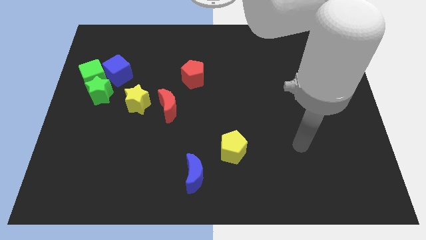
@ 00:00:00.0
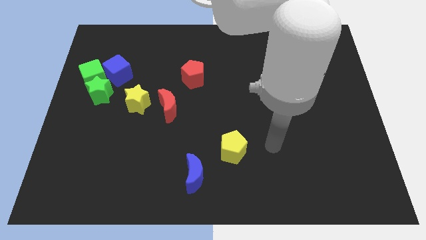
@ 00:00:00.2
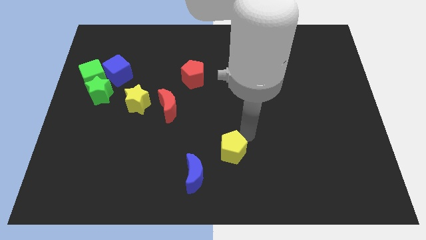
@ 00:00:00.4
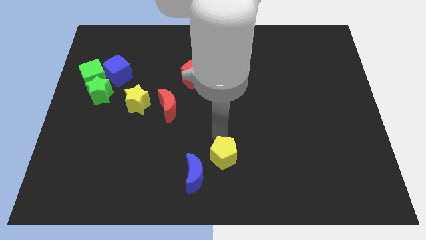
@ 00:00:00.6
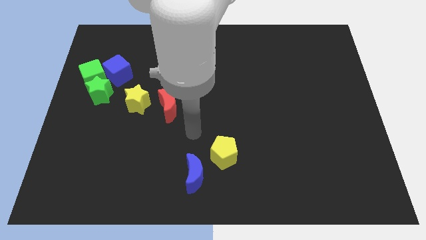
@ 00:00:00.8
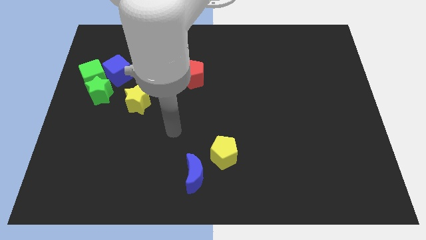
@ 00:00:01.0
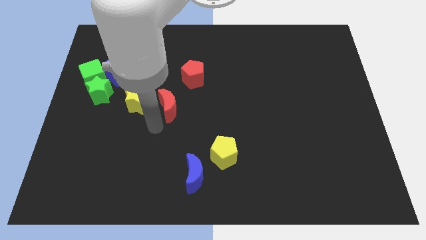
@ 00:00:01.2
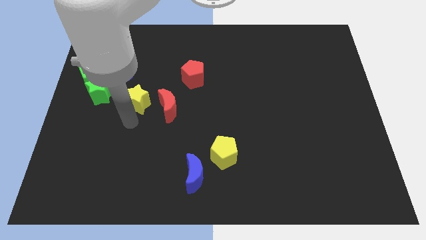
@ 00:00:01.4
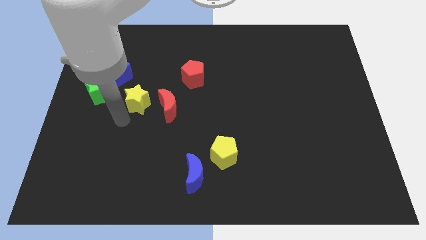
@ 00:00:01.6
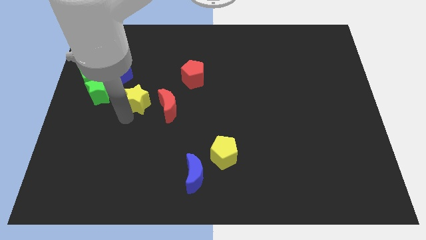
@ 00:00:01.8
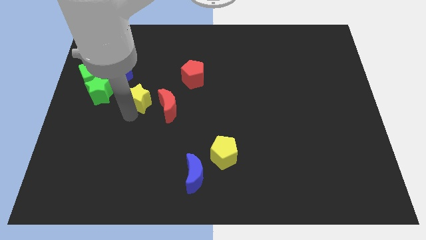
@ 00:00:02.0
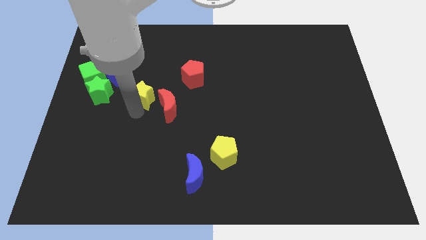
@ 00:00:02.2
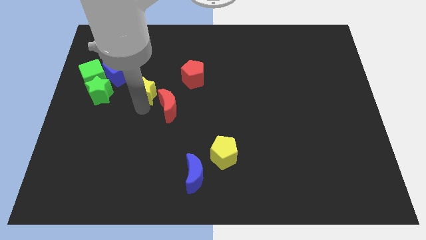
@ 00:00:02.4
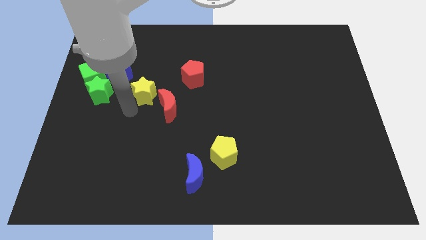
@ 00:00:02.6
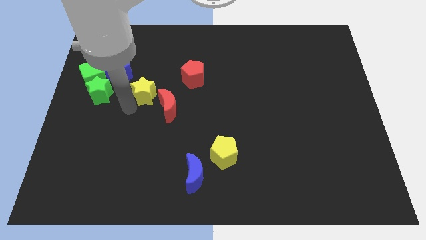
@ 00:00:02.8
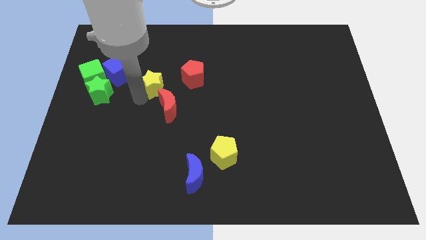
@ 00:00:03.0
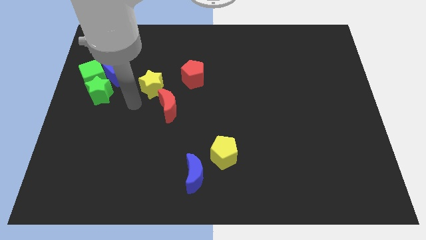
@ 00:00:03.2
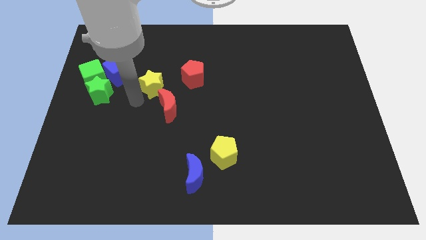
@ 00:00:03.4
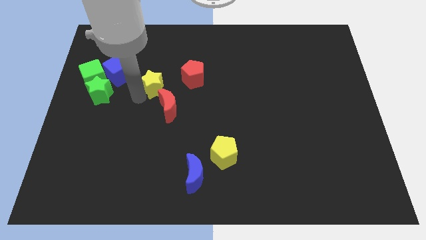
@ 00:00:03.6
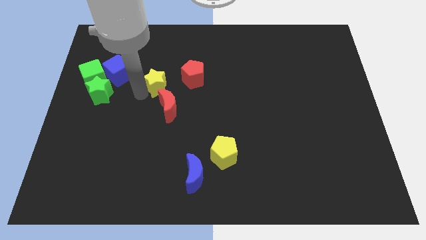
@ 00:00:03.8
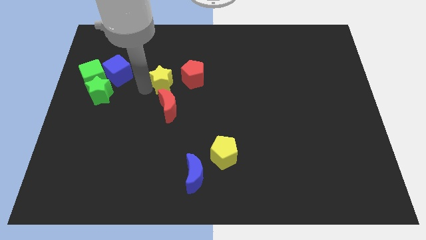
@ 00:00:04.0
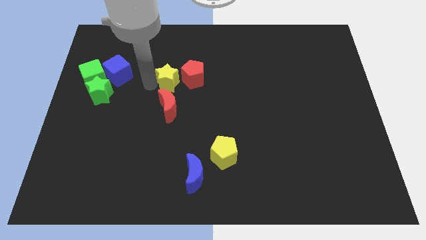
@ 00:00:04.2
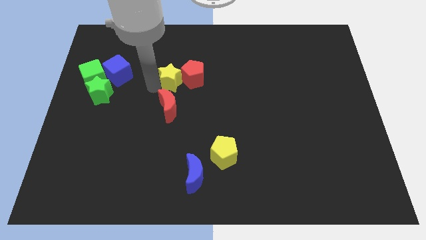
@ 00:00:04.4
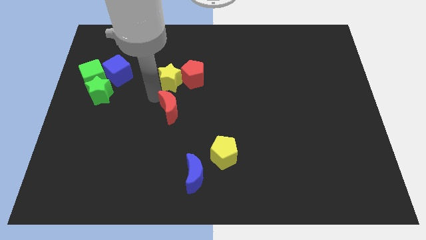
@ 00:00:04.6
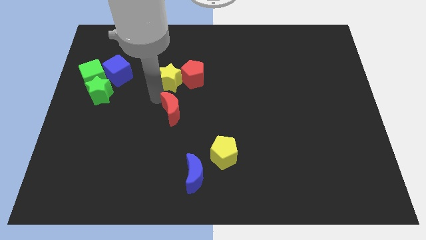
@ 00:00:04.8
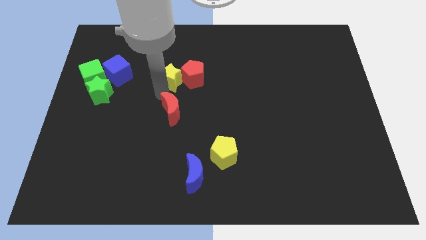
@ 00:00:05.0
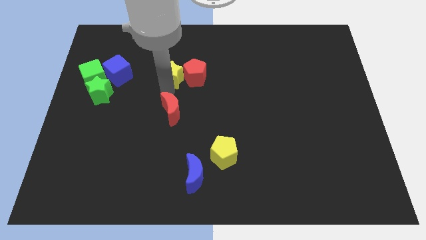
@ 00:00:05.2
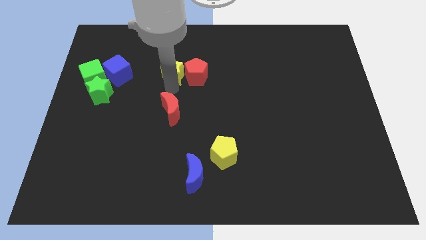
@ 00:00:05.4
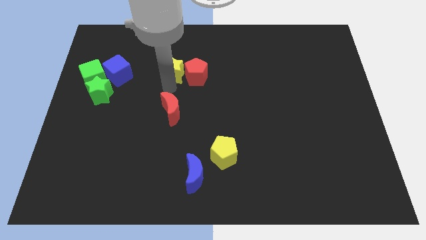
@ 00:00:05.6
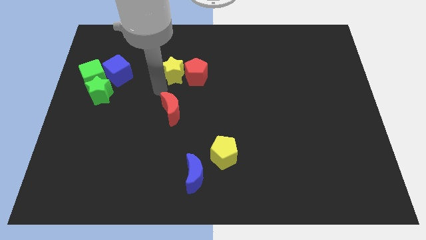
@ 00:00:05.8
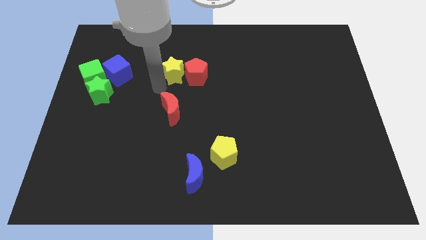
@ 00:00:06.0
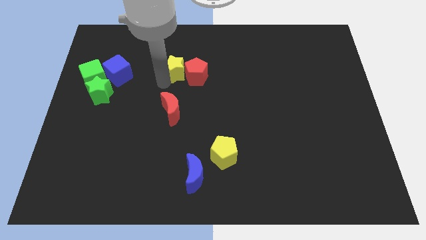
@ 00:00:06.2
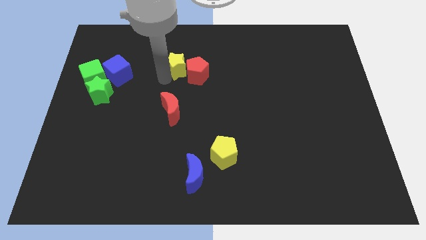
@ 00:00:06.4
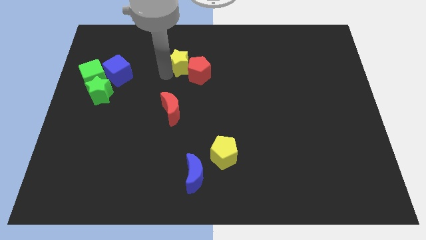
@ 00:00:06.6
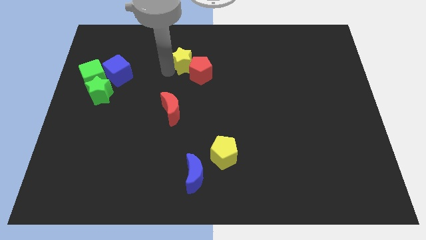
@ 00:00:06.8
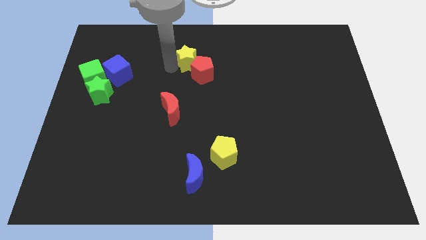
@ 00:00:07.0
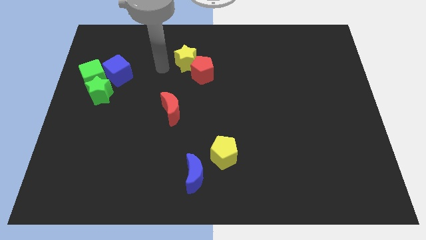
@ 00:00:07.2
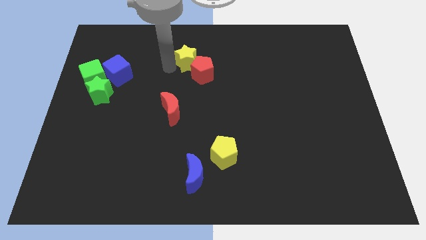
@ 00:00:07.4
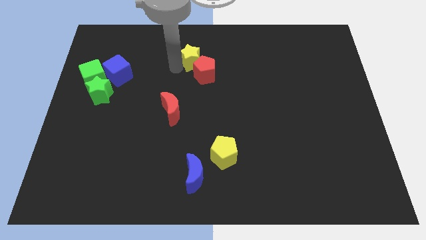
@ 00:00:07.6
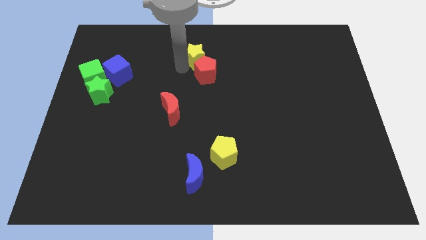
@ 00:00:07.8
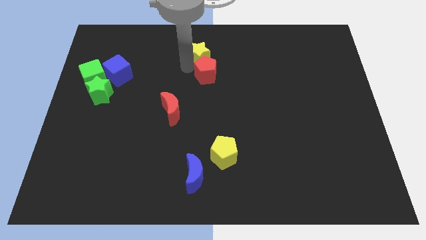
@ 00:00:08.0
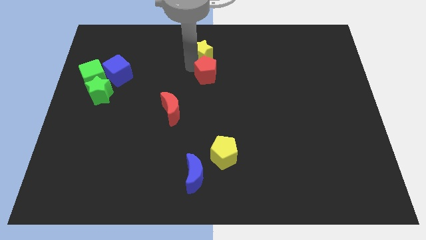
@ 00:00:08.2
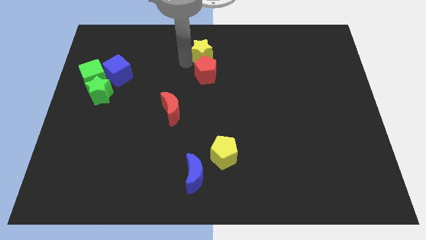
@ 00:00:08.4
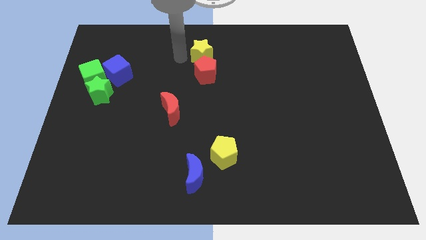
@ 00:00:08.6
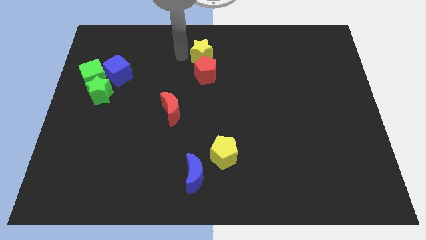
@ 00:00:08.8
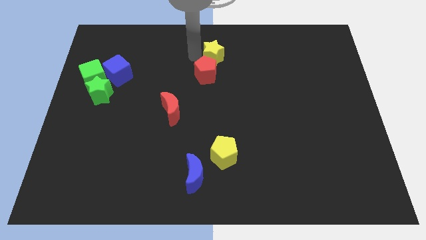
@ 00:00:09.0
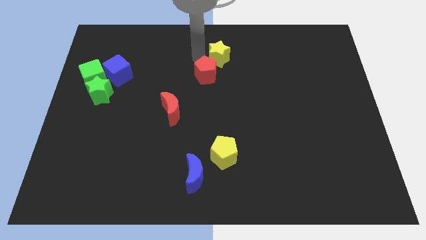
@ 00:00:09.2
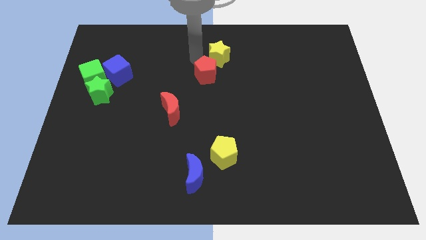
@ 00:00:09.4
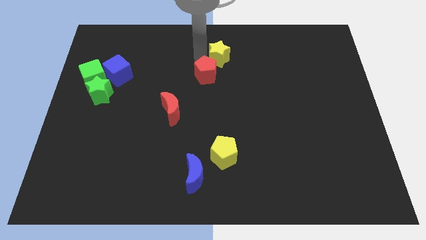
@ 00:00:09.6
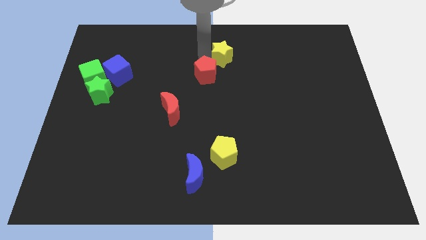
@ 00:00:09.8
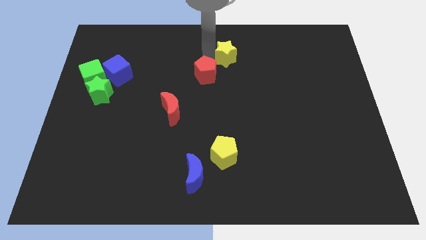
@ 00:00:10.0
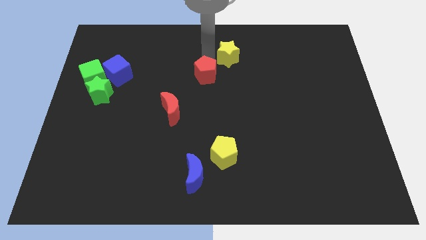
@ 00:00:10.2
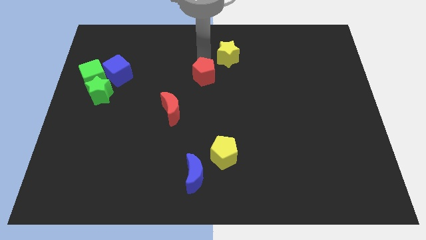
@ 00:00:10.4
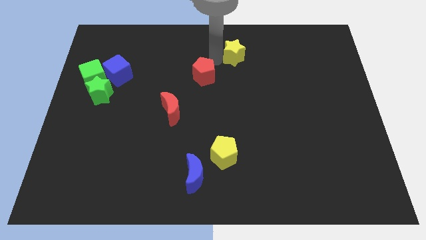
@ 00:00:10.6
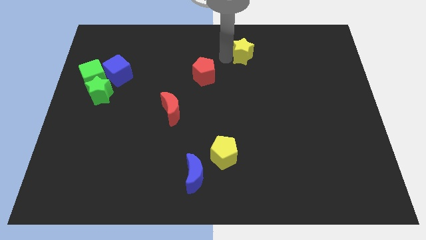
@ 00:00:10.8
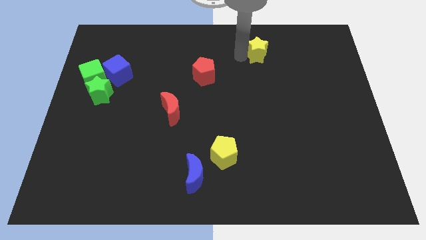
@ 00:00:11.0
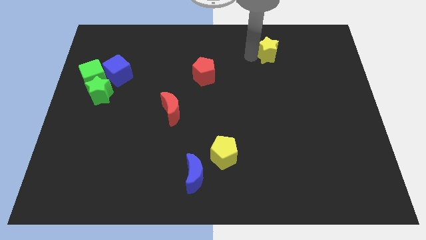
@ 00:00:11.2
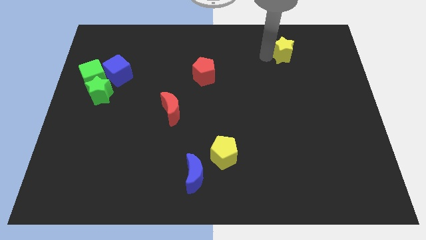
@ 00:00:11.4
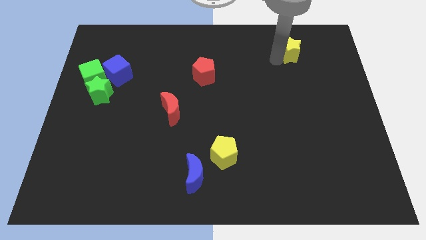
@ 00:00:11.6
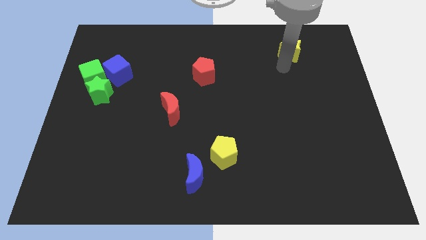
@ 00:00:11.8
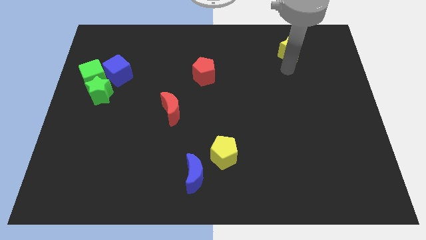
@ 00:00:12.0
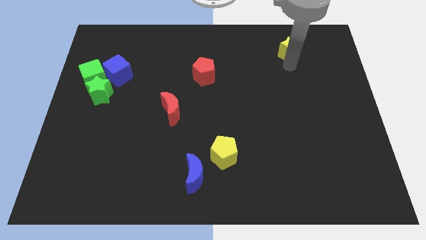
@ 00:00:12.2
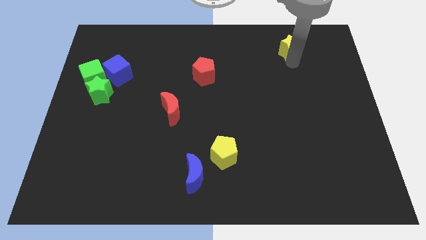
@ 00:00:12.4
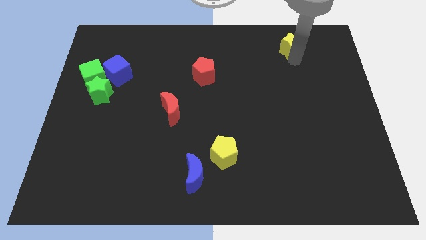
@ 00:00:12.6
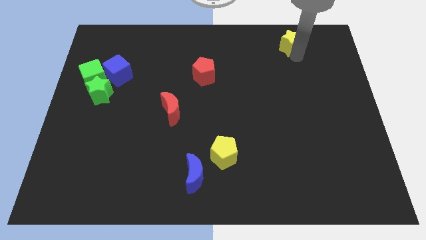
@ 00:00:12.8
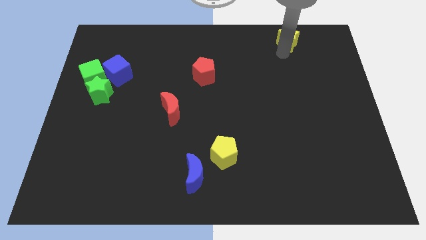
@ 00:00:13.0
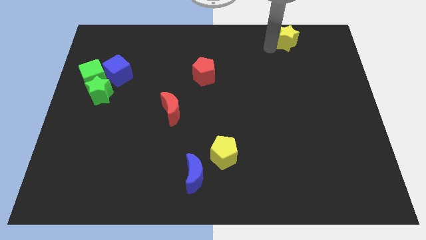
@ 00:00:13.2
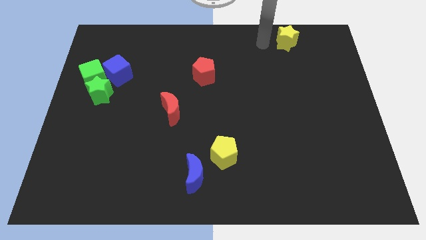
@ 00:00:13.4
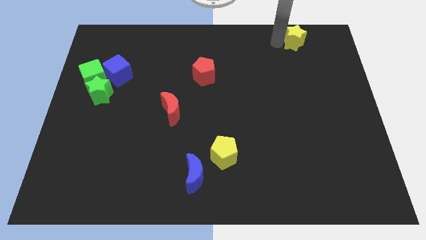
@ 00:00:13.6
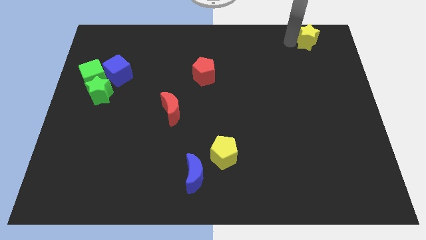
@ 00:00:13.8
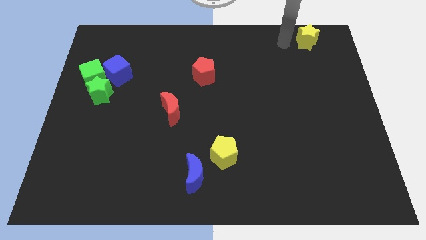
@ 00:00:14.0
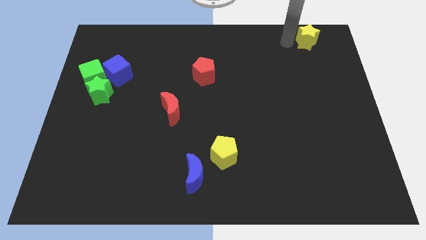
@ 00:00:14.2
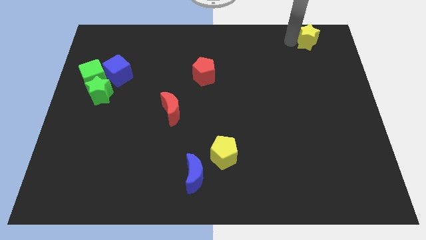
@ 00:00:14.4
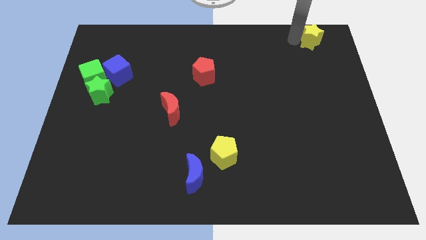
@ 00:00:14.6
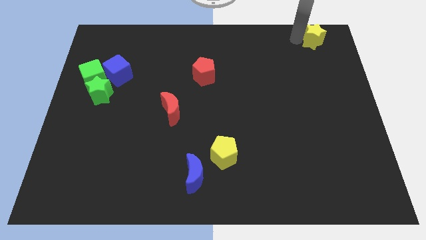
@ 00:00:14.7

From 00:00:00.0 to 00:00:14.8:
slide the yellow star to the upper right corner
